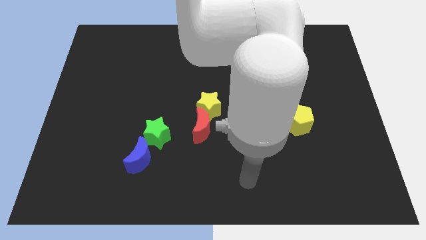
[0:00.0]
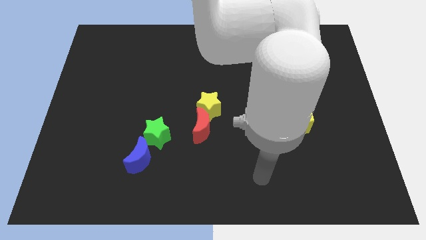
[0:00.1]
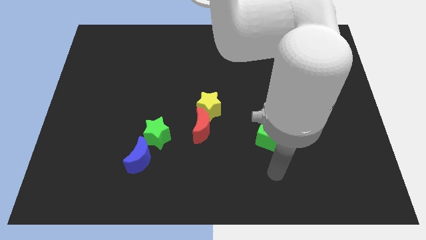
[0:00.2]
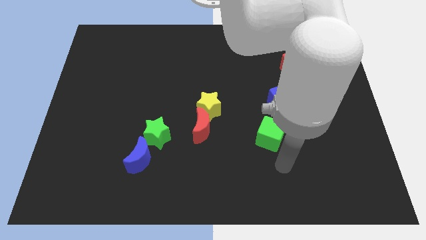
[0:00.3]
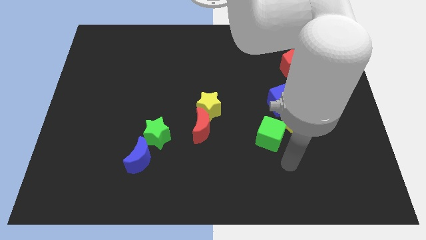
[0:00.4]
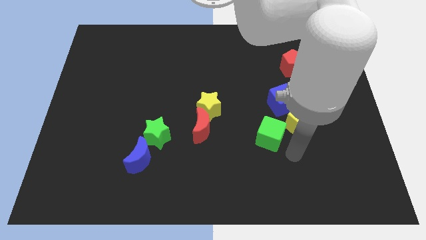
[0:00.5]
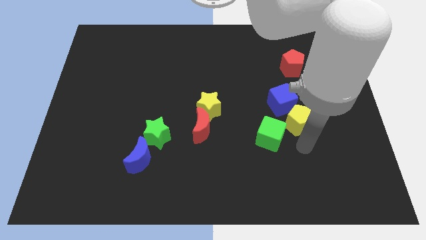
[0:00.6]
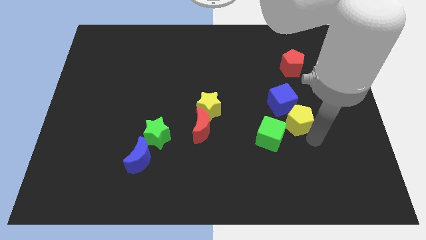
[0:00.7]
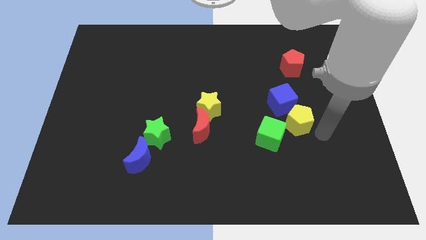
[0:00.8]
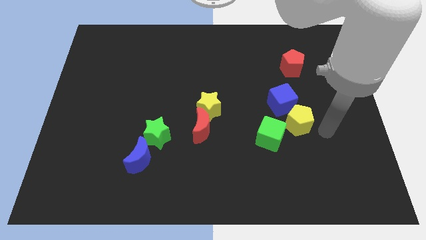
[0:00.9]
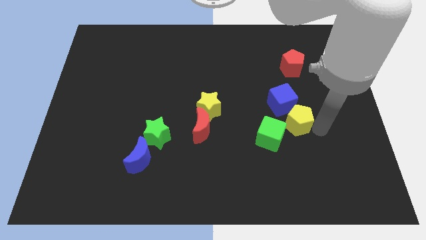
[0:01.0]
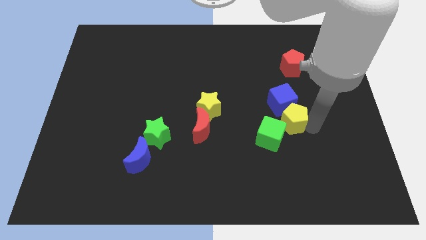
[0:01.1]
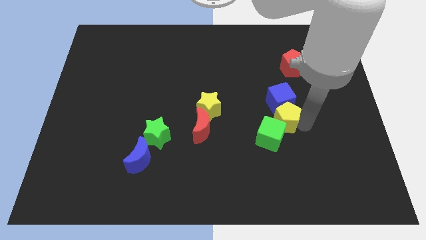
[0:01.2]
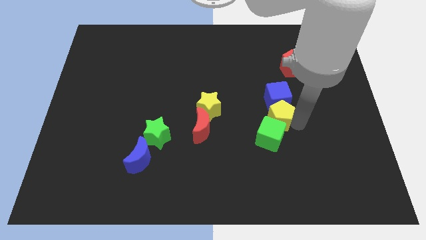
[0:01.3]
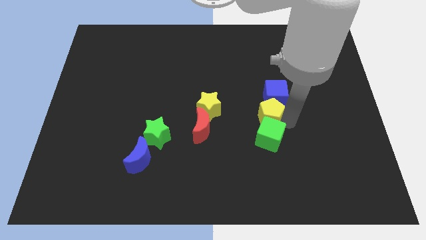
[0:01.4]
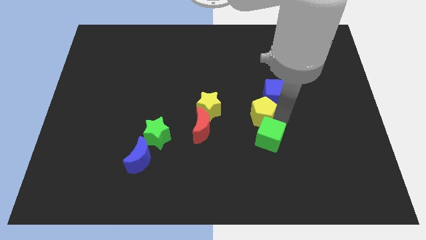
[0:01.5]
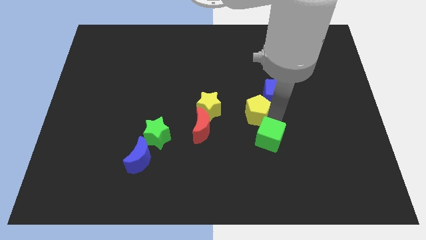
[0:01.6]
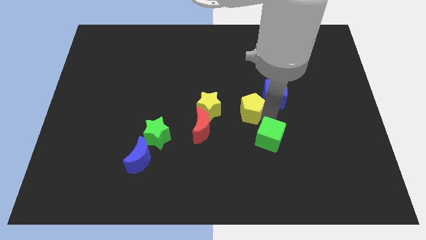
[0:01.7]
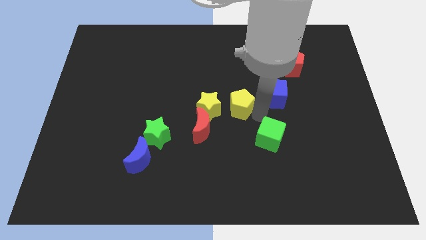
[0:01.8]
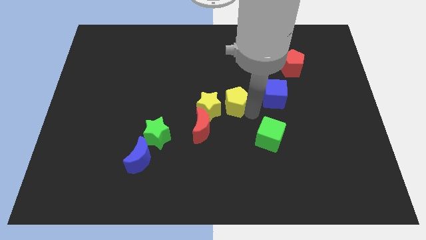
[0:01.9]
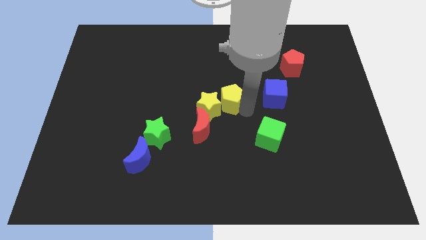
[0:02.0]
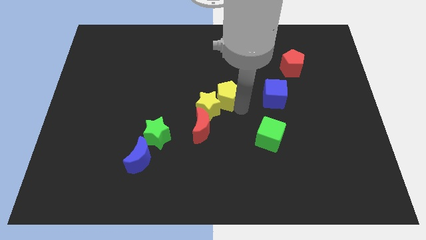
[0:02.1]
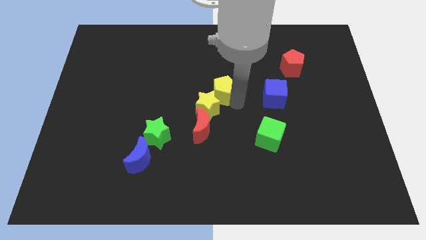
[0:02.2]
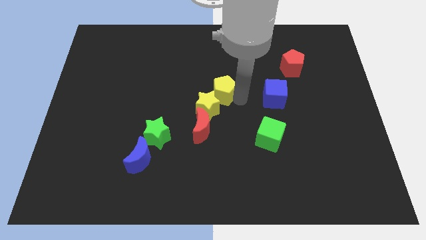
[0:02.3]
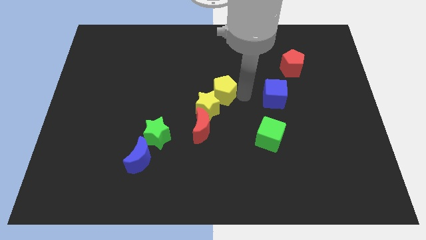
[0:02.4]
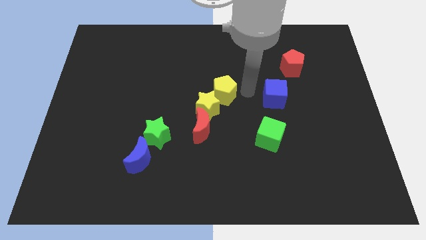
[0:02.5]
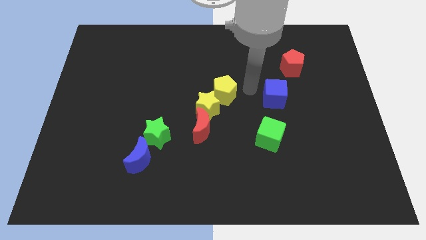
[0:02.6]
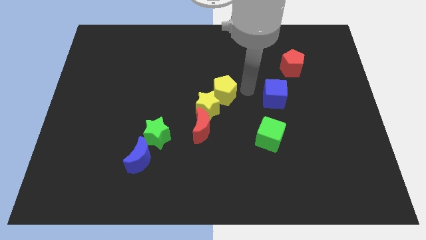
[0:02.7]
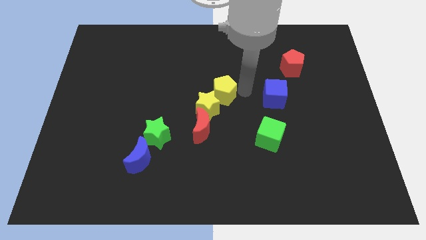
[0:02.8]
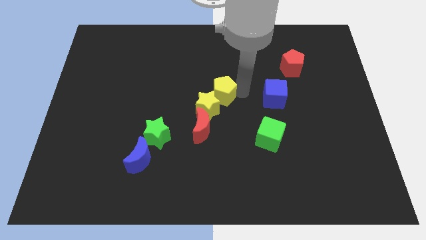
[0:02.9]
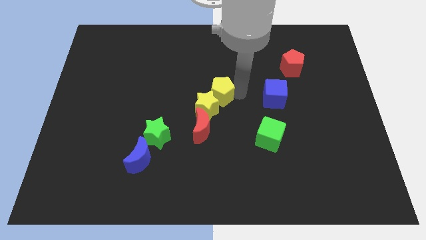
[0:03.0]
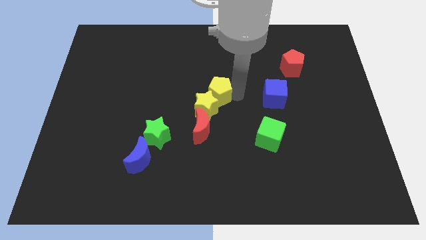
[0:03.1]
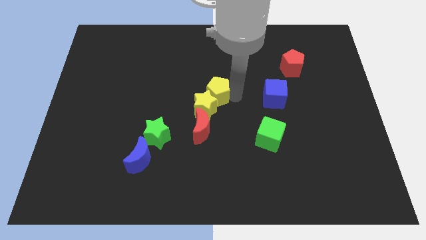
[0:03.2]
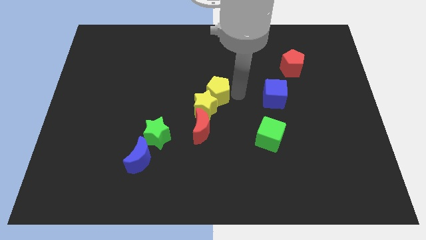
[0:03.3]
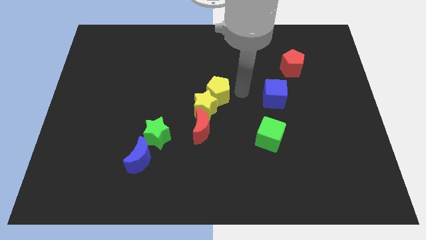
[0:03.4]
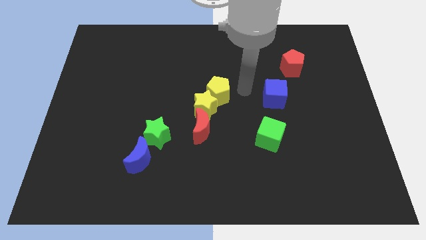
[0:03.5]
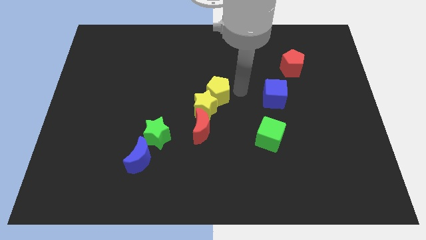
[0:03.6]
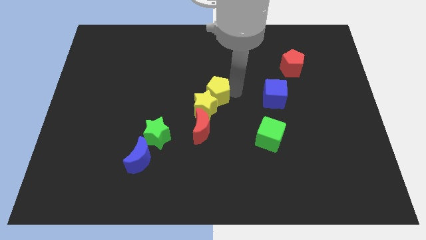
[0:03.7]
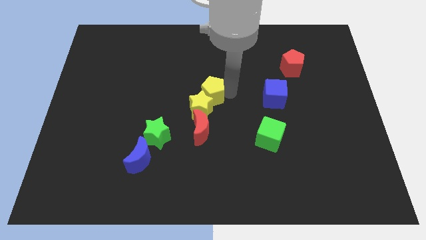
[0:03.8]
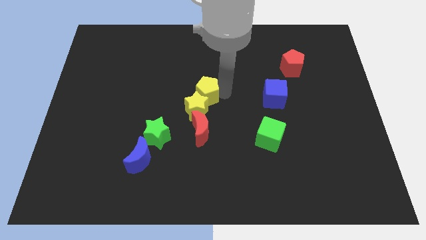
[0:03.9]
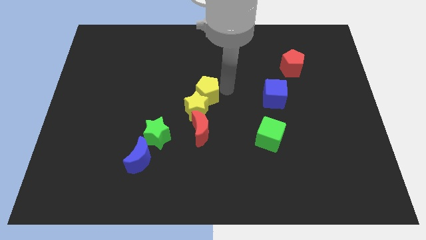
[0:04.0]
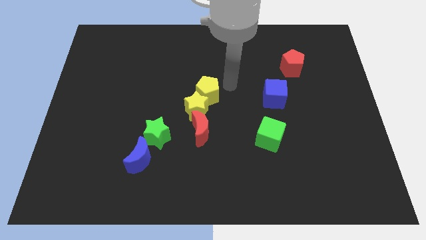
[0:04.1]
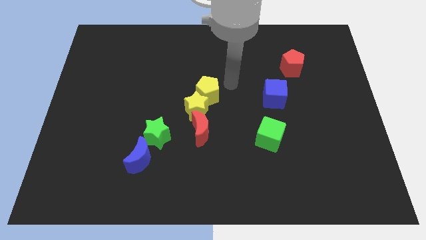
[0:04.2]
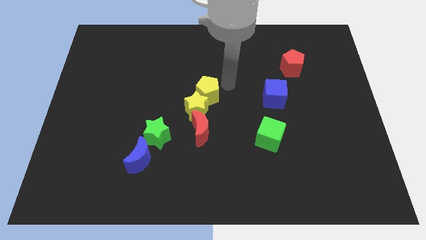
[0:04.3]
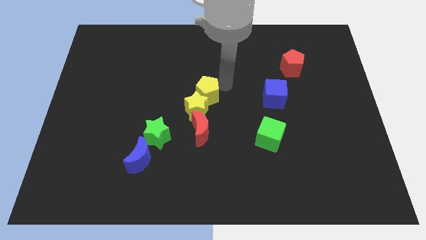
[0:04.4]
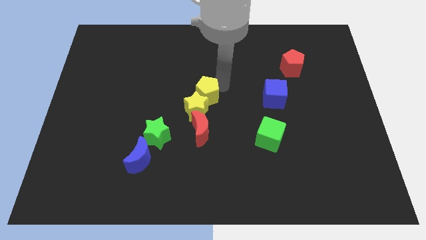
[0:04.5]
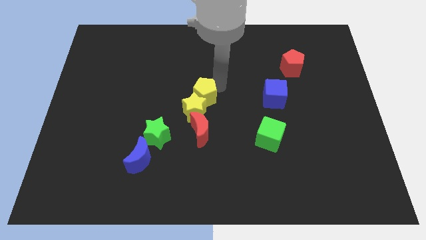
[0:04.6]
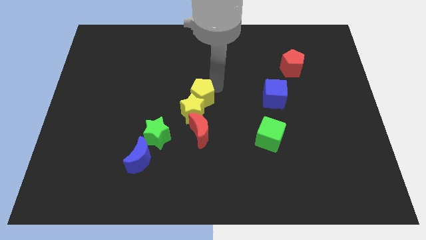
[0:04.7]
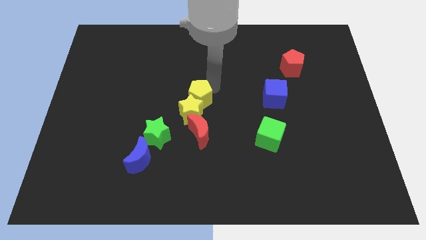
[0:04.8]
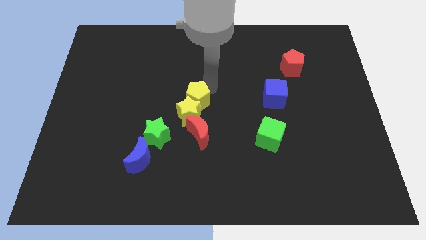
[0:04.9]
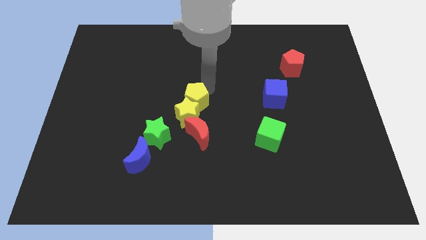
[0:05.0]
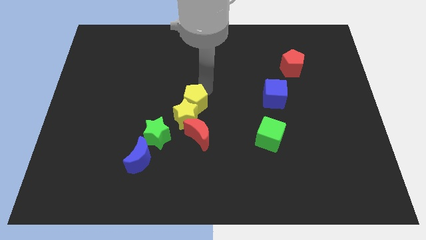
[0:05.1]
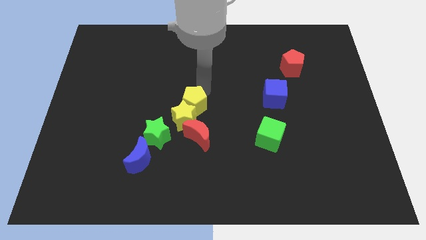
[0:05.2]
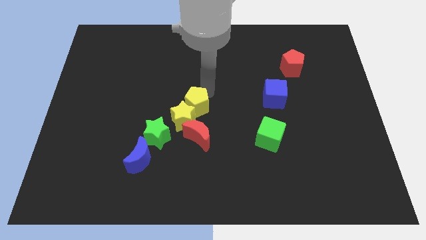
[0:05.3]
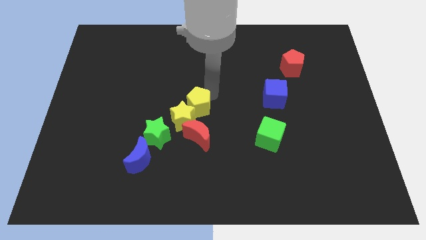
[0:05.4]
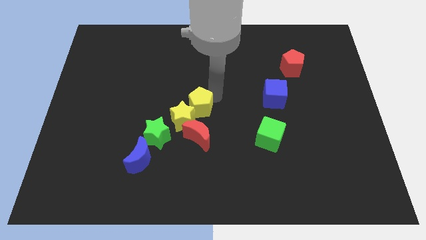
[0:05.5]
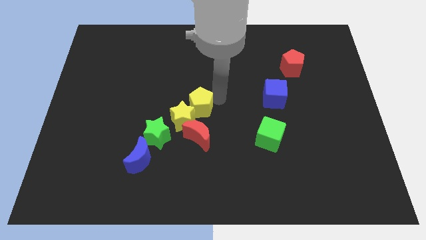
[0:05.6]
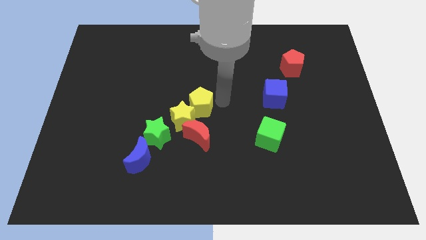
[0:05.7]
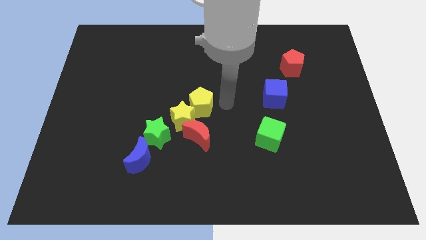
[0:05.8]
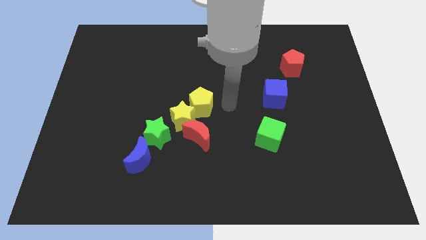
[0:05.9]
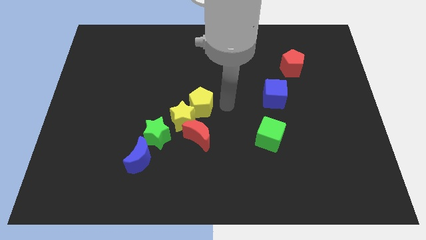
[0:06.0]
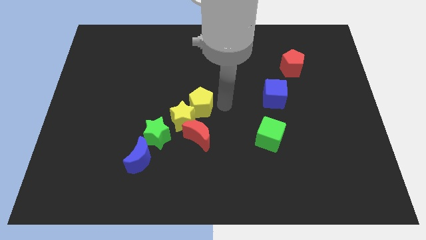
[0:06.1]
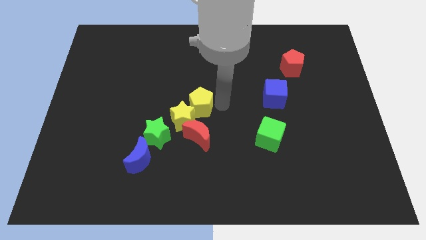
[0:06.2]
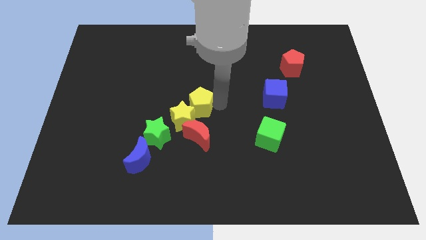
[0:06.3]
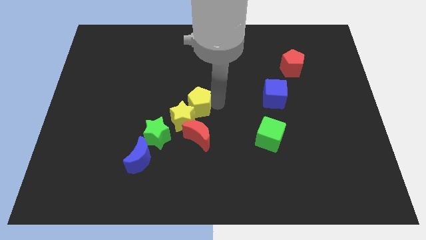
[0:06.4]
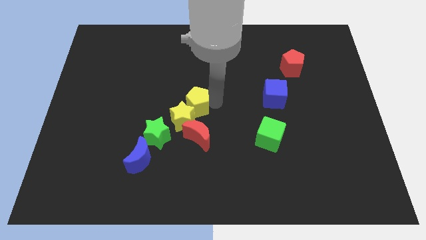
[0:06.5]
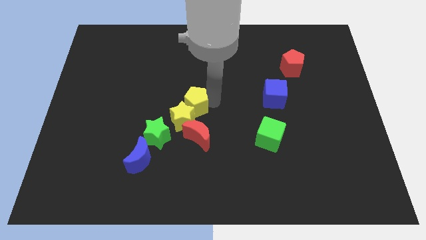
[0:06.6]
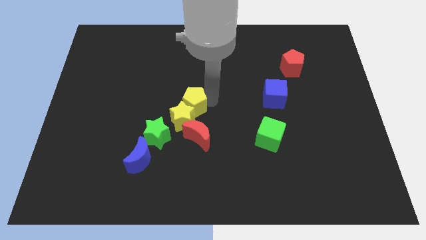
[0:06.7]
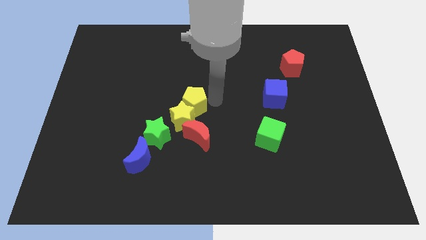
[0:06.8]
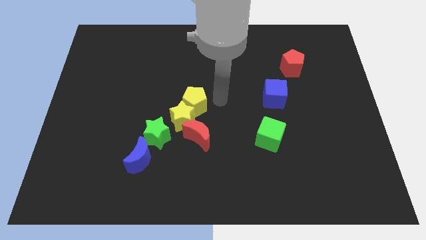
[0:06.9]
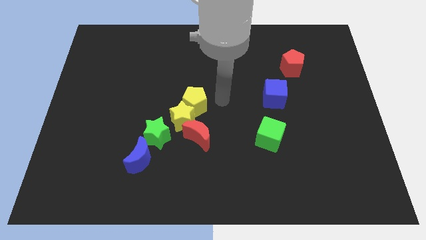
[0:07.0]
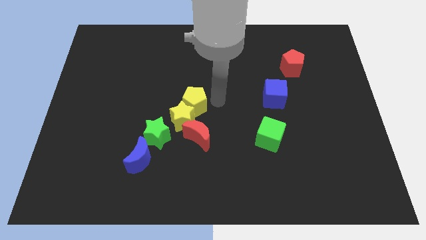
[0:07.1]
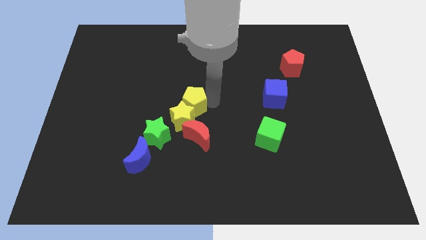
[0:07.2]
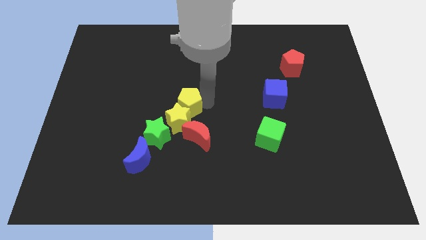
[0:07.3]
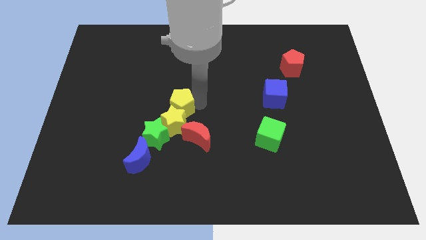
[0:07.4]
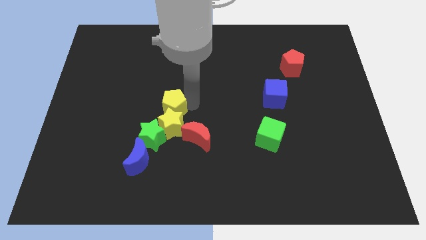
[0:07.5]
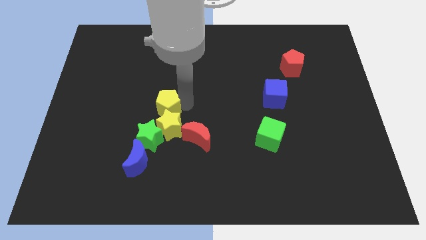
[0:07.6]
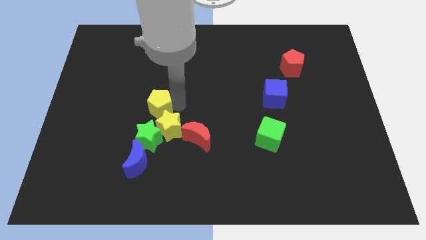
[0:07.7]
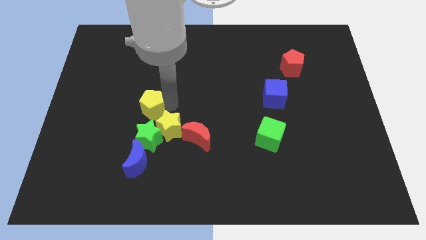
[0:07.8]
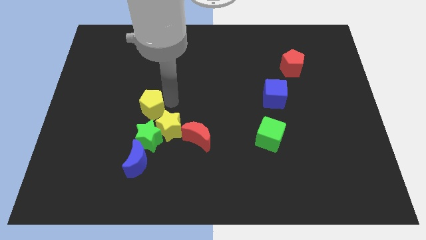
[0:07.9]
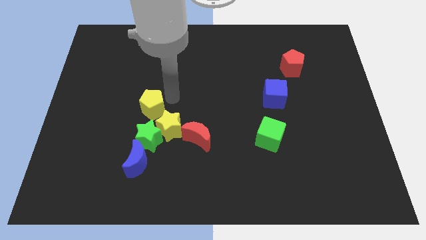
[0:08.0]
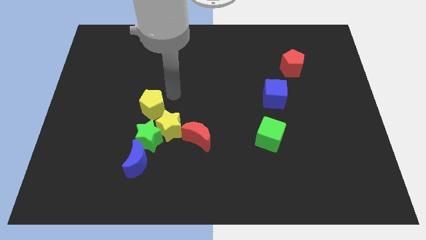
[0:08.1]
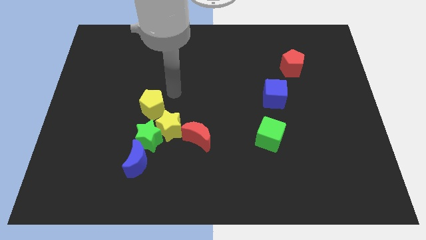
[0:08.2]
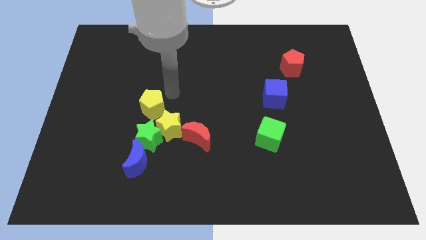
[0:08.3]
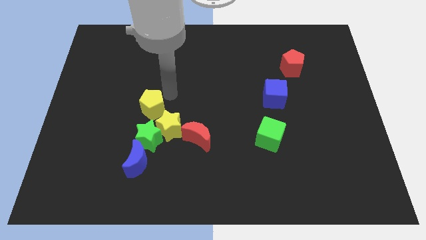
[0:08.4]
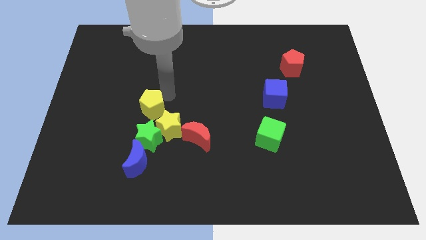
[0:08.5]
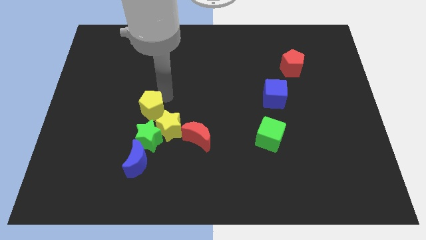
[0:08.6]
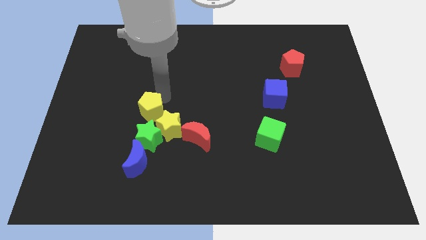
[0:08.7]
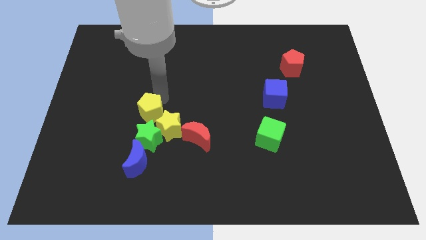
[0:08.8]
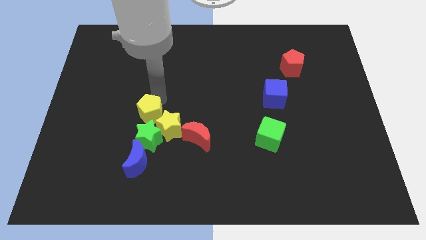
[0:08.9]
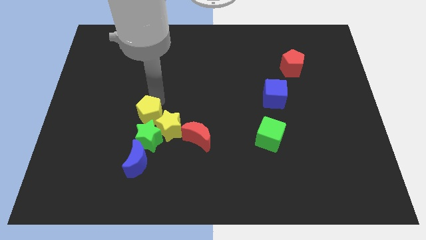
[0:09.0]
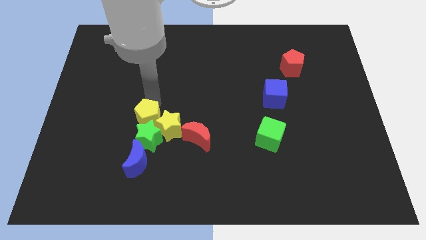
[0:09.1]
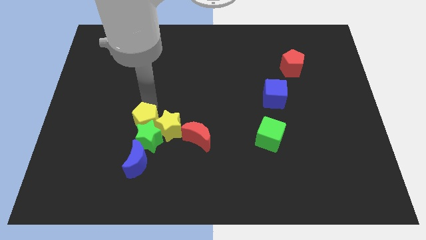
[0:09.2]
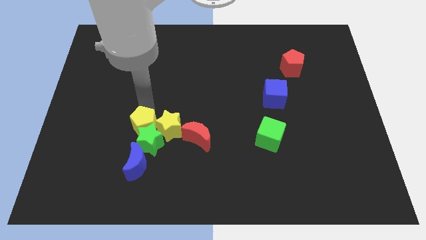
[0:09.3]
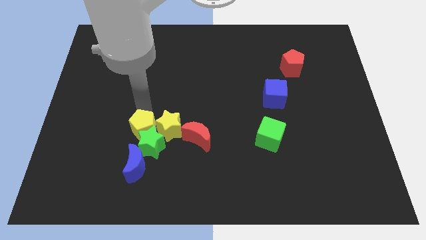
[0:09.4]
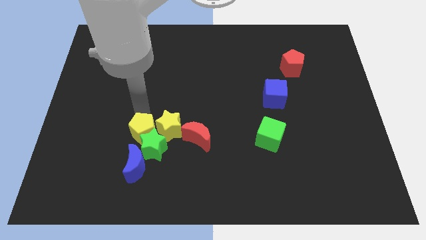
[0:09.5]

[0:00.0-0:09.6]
put the yellow pentagon to the left of the green star
